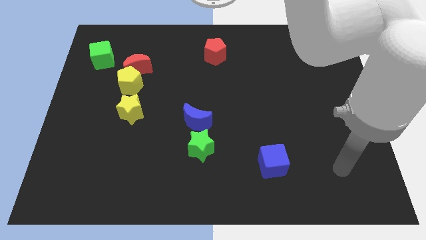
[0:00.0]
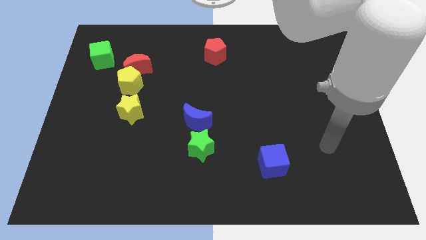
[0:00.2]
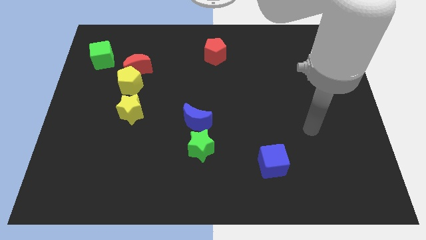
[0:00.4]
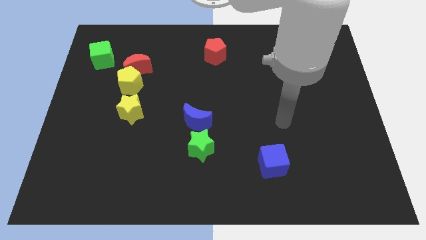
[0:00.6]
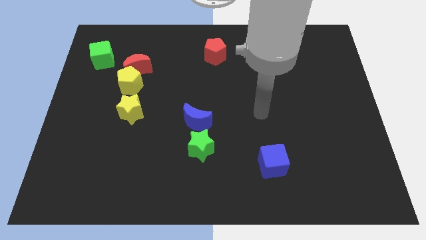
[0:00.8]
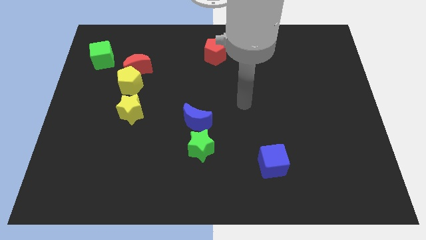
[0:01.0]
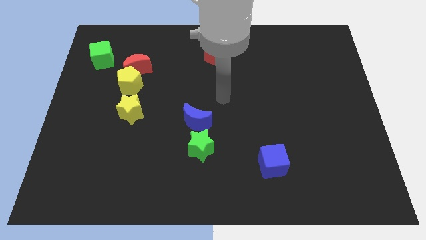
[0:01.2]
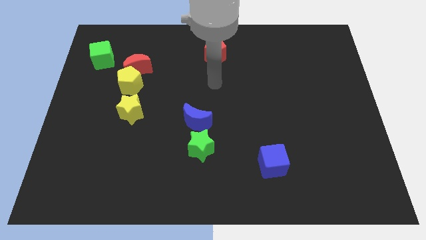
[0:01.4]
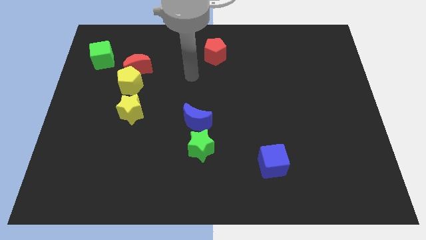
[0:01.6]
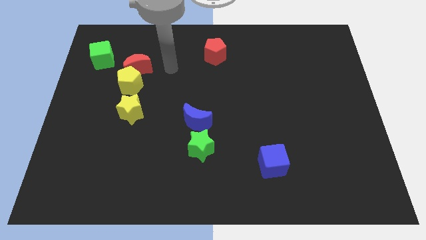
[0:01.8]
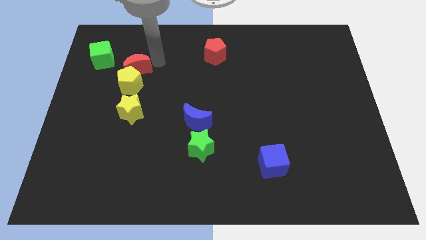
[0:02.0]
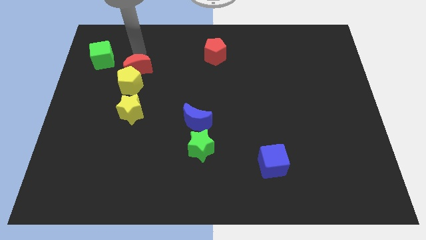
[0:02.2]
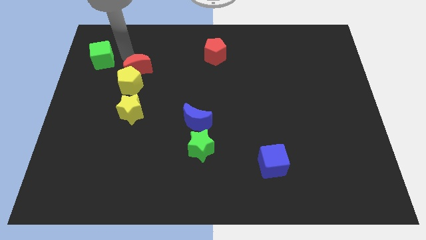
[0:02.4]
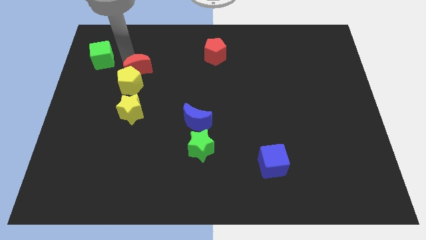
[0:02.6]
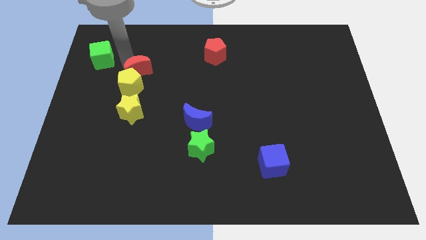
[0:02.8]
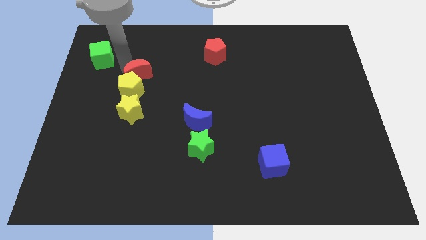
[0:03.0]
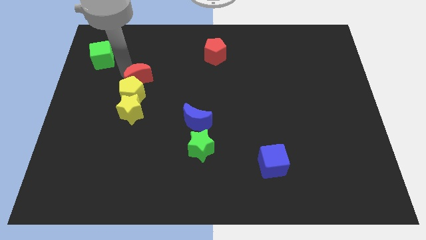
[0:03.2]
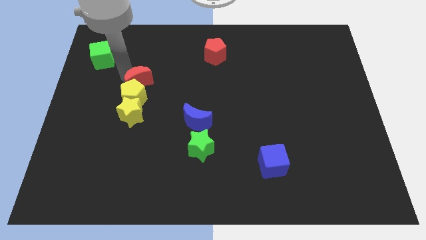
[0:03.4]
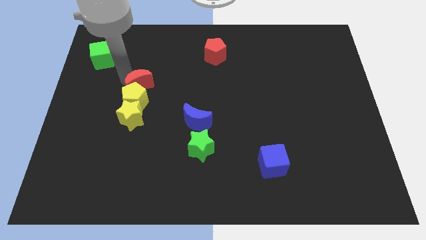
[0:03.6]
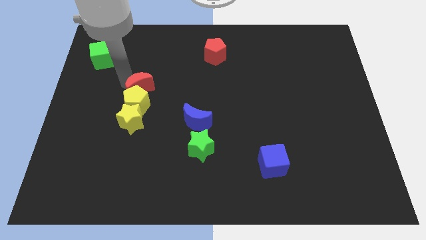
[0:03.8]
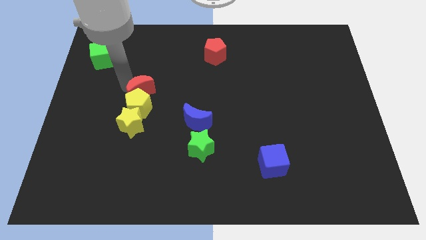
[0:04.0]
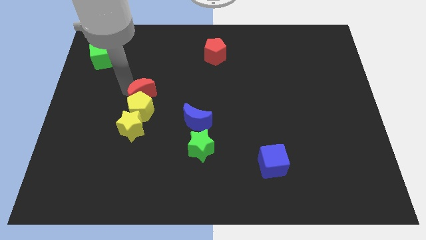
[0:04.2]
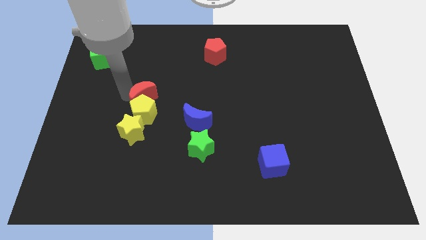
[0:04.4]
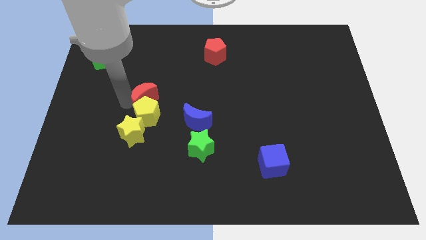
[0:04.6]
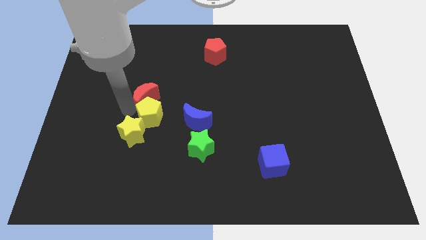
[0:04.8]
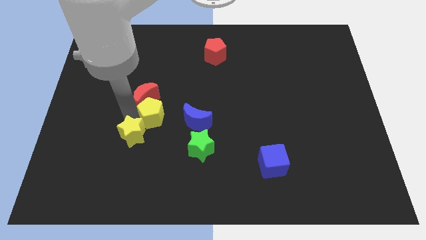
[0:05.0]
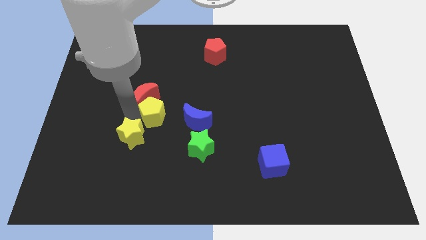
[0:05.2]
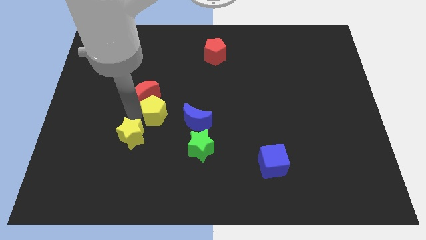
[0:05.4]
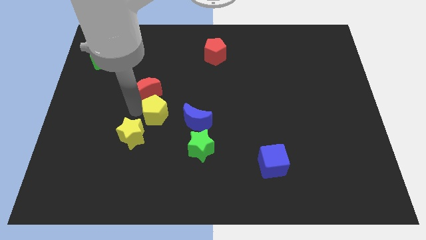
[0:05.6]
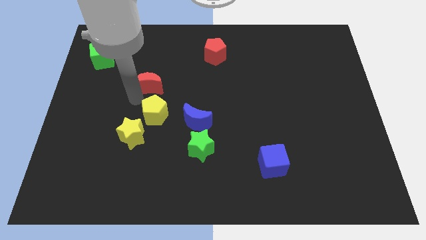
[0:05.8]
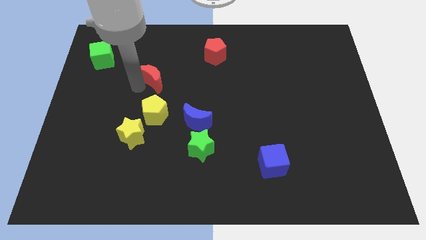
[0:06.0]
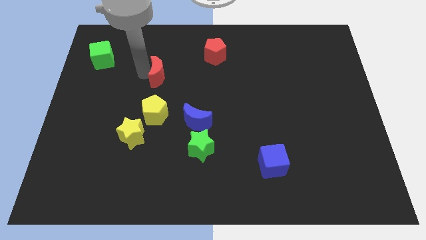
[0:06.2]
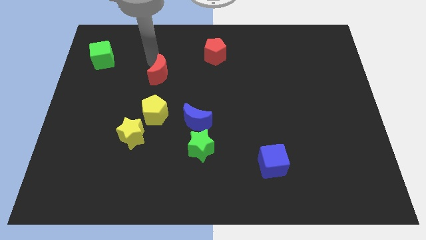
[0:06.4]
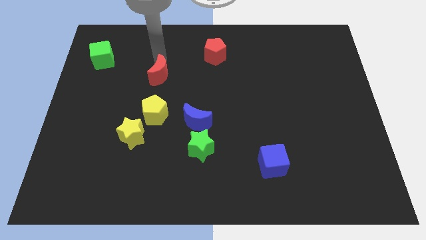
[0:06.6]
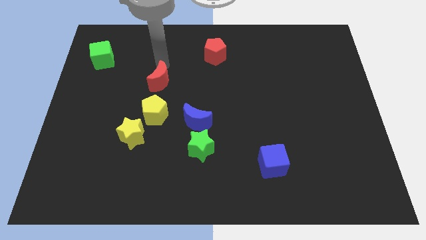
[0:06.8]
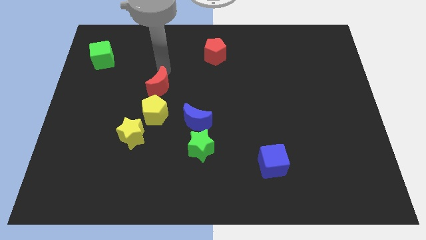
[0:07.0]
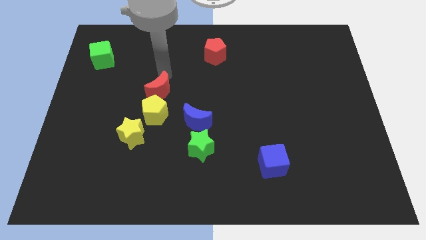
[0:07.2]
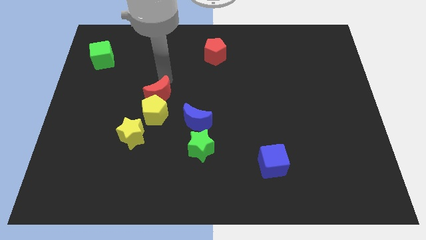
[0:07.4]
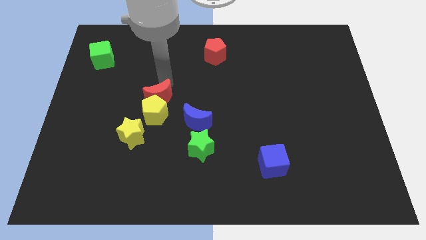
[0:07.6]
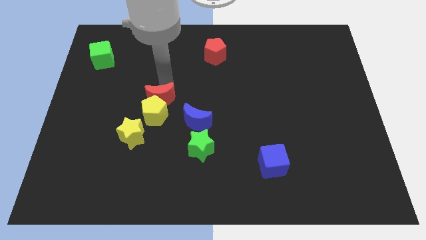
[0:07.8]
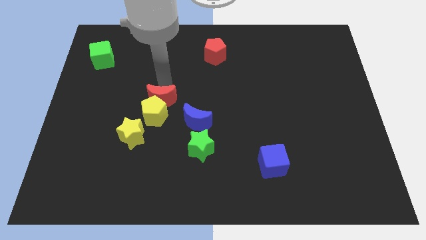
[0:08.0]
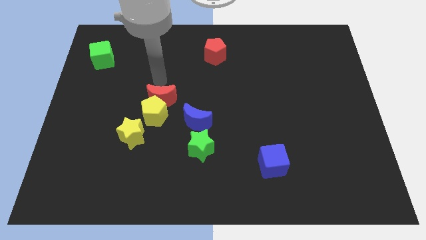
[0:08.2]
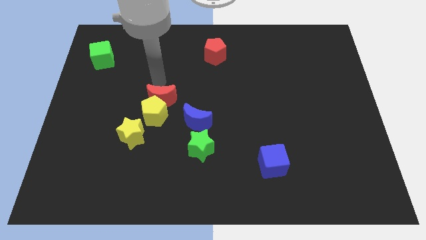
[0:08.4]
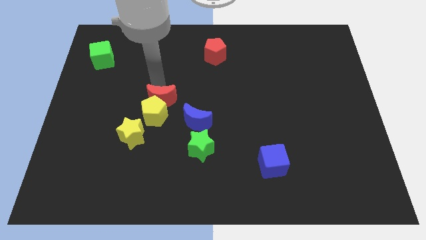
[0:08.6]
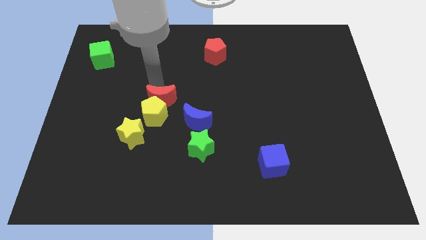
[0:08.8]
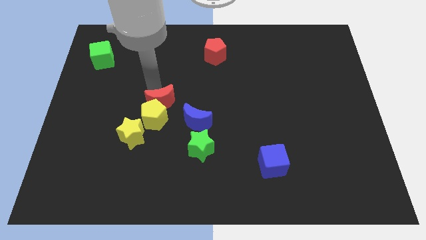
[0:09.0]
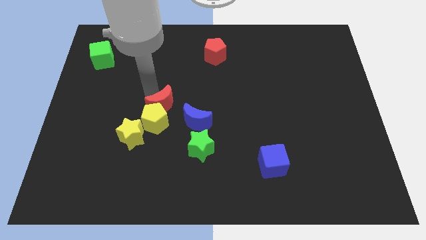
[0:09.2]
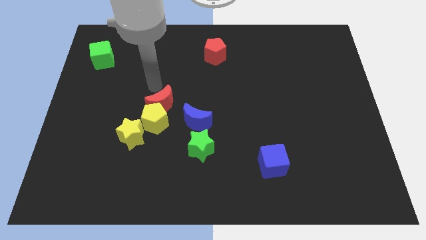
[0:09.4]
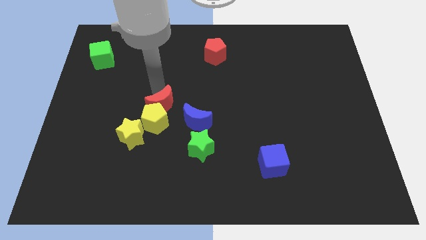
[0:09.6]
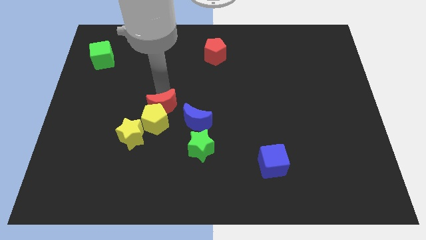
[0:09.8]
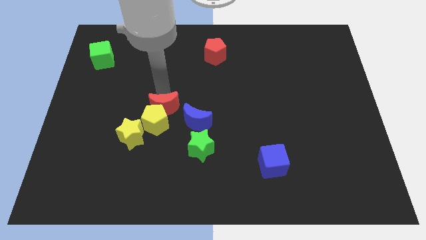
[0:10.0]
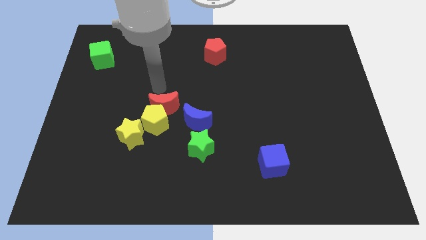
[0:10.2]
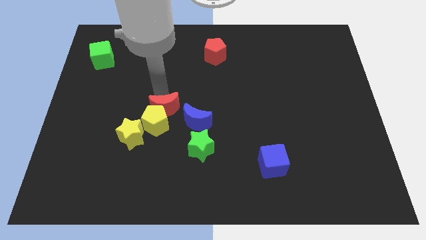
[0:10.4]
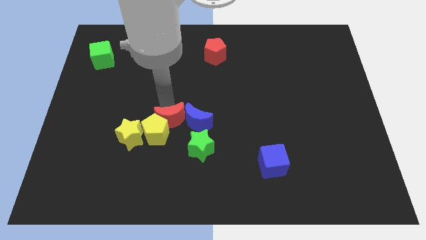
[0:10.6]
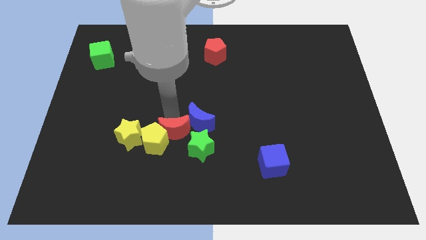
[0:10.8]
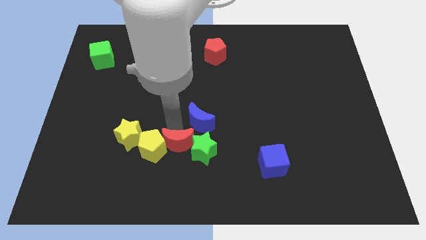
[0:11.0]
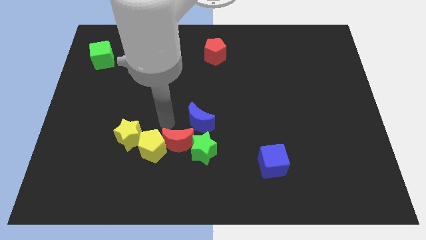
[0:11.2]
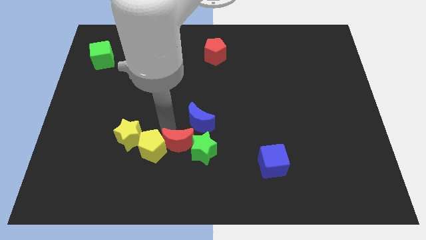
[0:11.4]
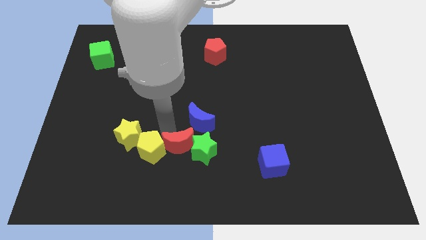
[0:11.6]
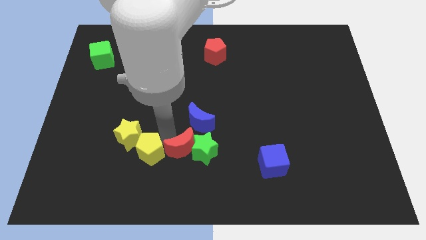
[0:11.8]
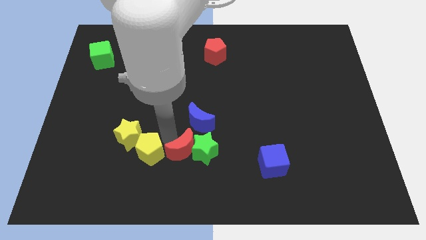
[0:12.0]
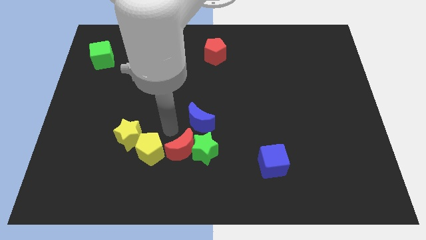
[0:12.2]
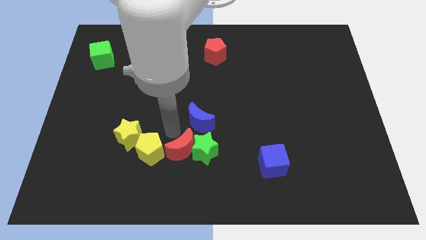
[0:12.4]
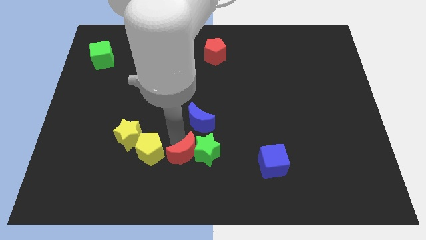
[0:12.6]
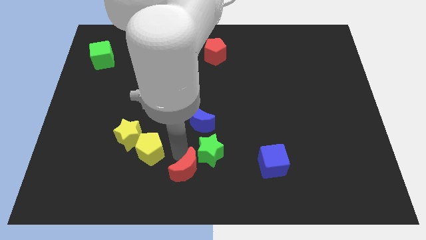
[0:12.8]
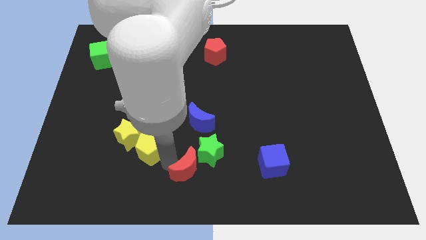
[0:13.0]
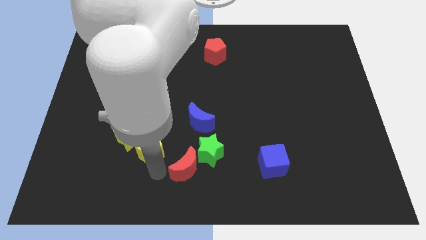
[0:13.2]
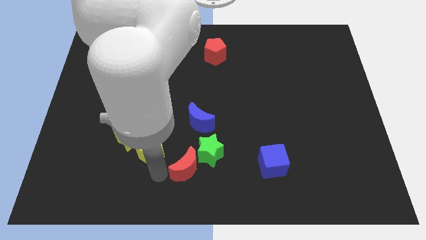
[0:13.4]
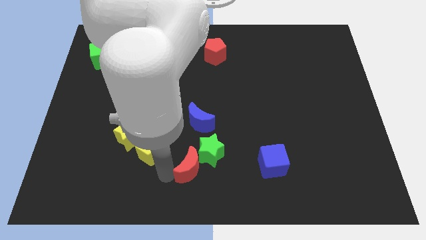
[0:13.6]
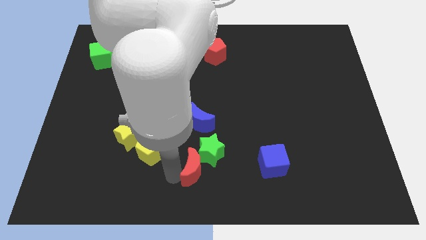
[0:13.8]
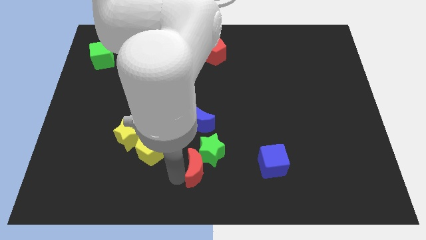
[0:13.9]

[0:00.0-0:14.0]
slide the red moon to the left of the blue cube
